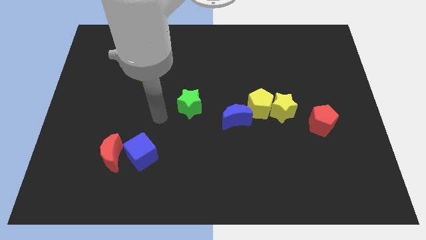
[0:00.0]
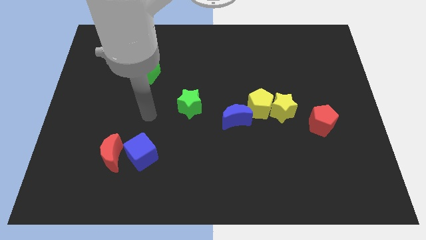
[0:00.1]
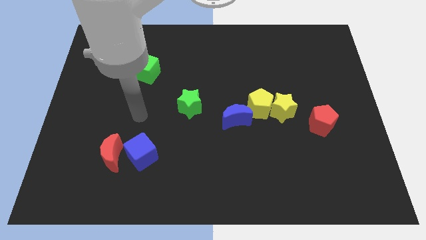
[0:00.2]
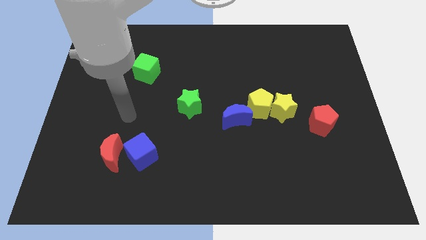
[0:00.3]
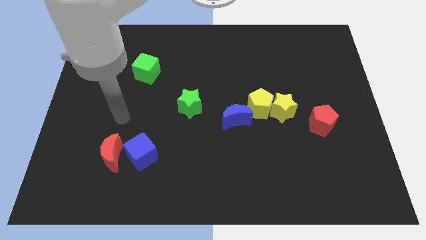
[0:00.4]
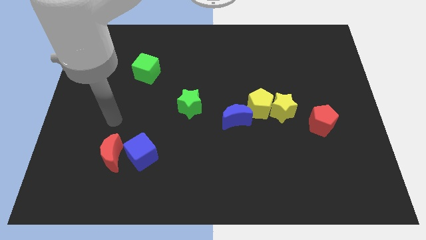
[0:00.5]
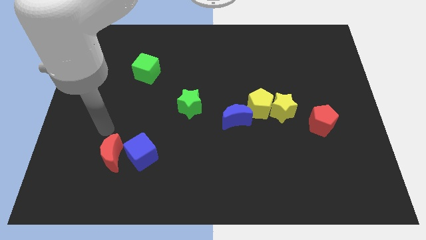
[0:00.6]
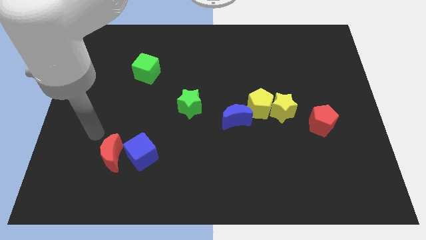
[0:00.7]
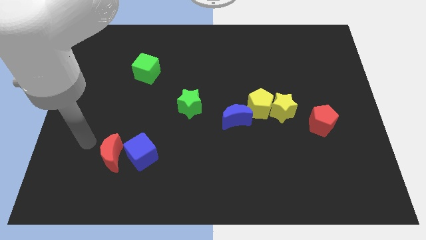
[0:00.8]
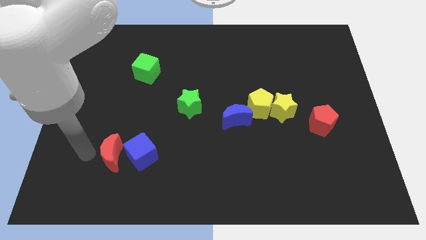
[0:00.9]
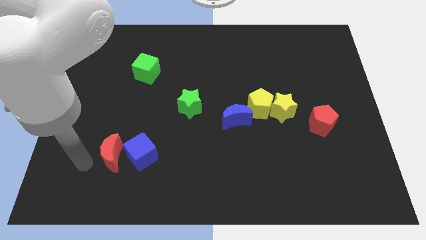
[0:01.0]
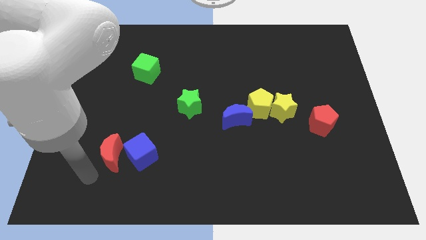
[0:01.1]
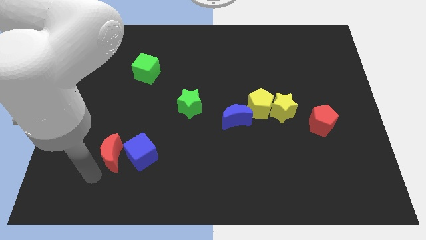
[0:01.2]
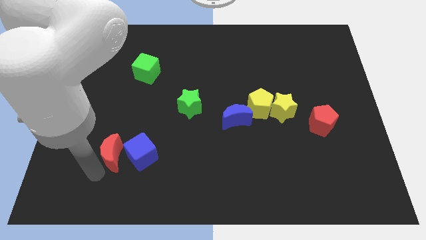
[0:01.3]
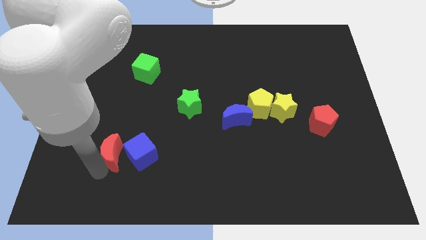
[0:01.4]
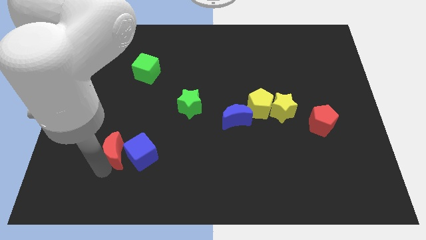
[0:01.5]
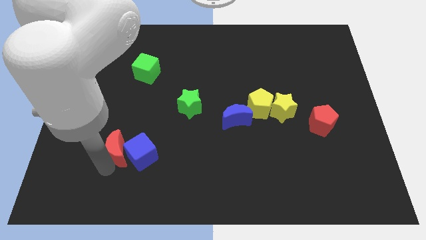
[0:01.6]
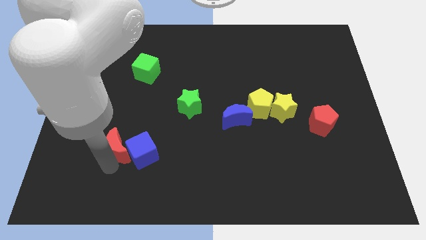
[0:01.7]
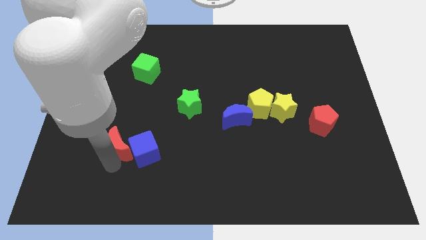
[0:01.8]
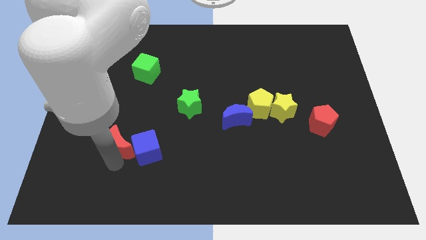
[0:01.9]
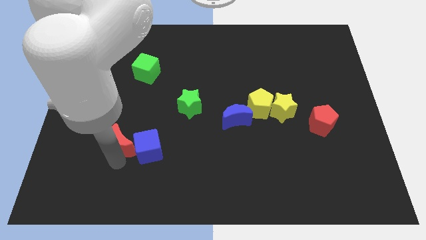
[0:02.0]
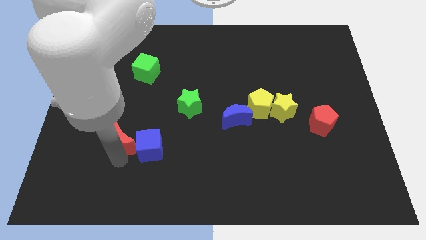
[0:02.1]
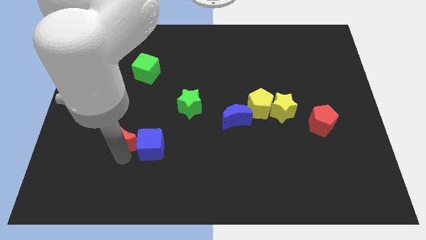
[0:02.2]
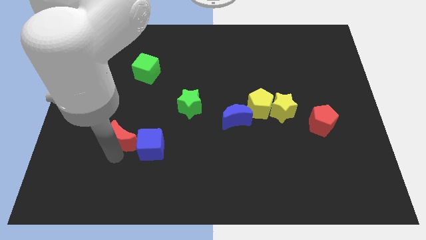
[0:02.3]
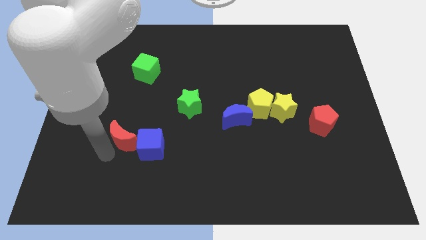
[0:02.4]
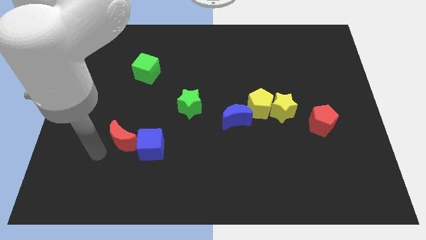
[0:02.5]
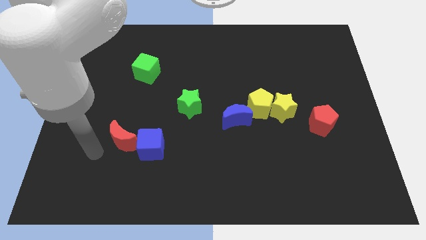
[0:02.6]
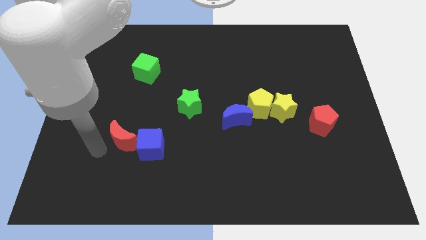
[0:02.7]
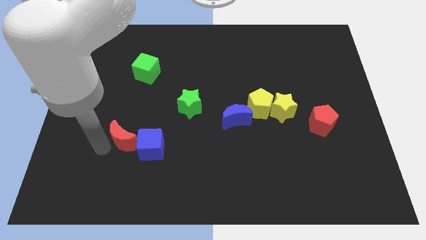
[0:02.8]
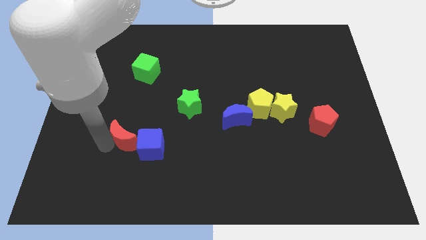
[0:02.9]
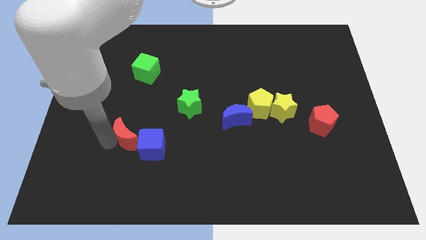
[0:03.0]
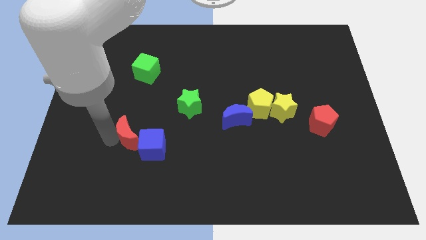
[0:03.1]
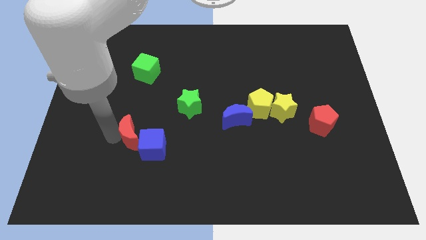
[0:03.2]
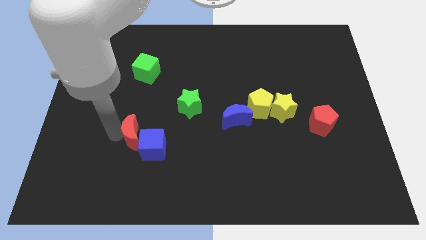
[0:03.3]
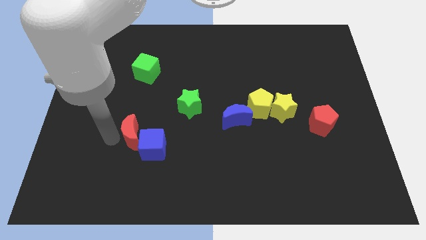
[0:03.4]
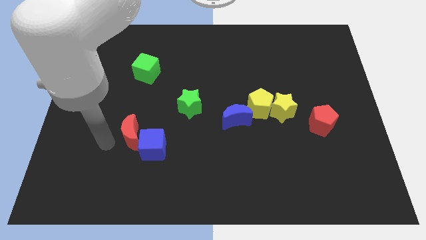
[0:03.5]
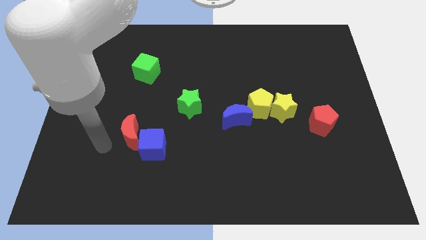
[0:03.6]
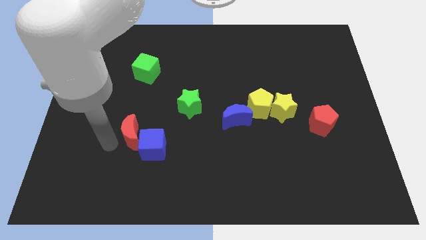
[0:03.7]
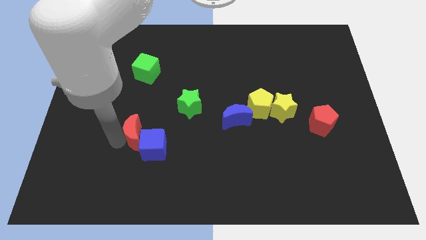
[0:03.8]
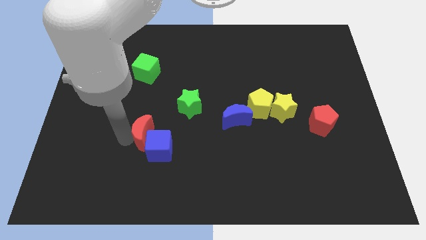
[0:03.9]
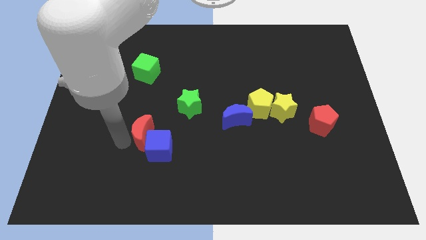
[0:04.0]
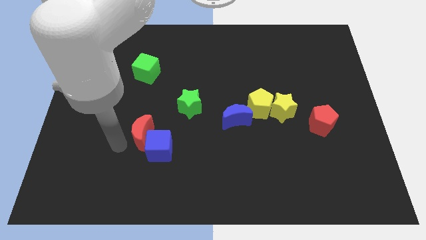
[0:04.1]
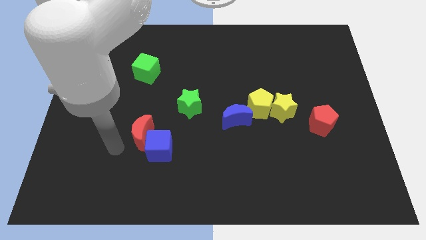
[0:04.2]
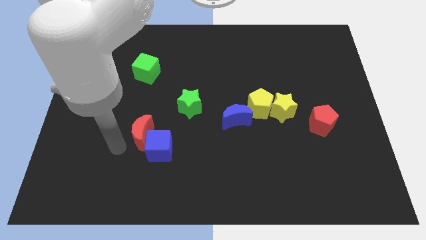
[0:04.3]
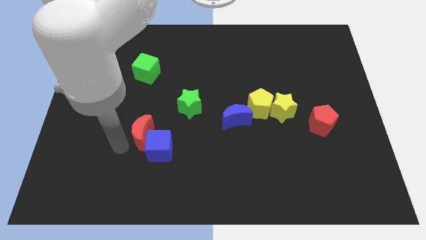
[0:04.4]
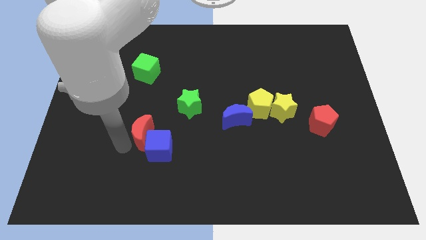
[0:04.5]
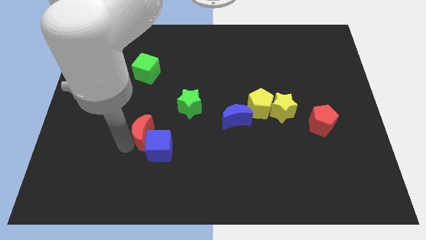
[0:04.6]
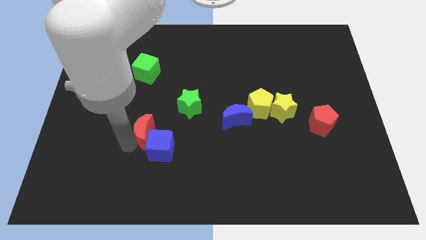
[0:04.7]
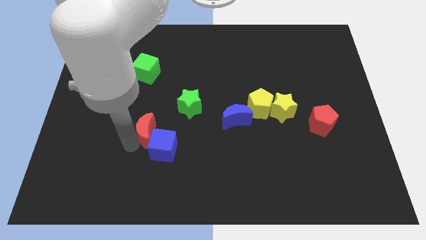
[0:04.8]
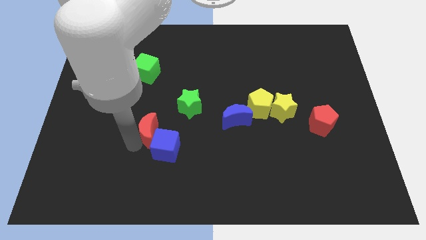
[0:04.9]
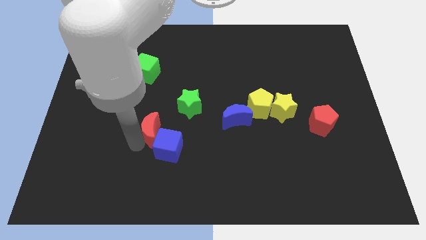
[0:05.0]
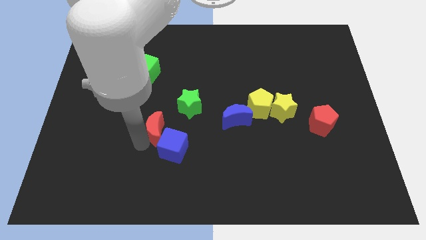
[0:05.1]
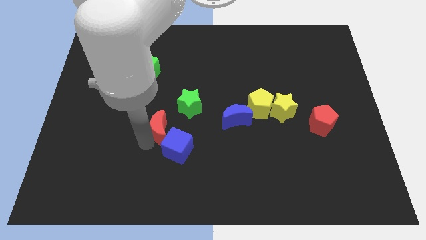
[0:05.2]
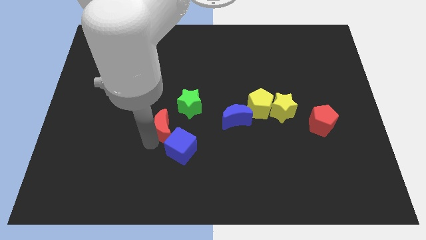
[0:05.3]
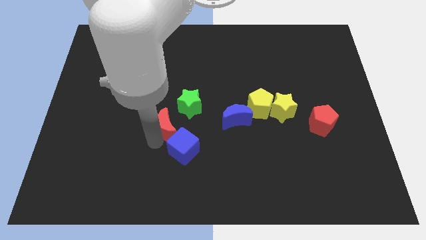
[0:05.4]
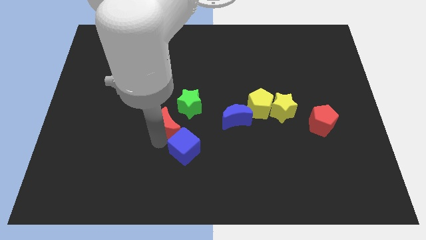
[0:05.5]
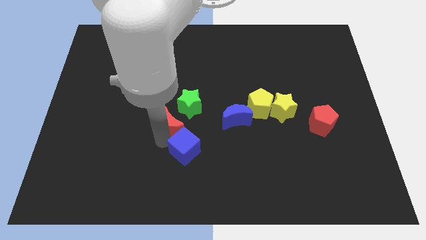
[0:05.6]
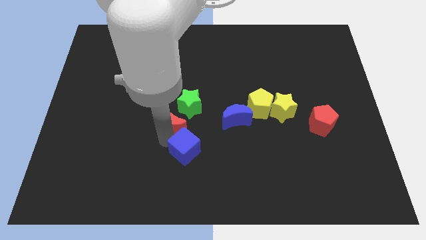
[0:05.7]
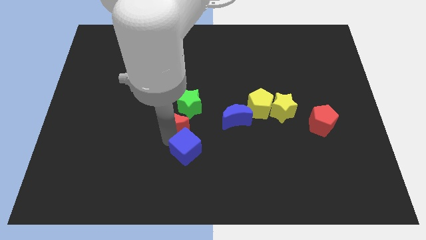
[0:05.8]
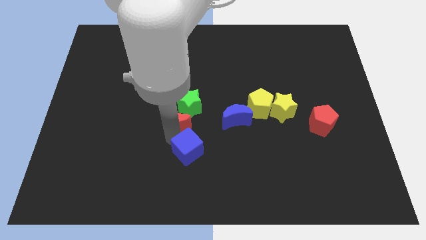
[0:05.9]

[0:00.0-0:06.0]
move the red moon to the green star

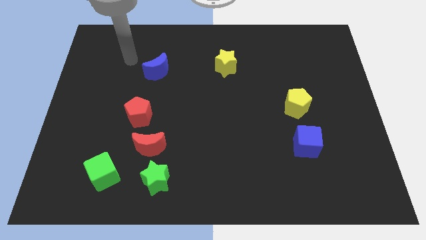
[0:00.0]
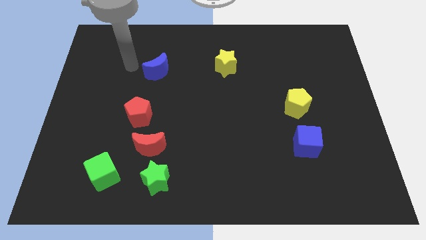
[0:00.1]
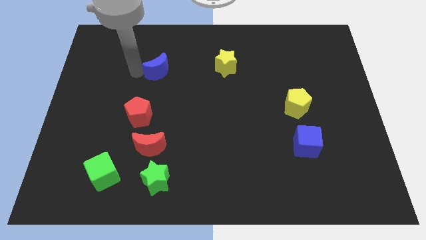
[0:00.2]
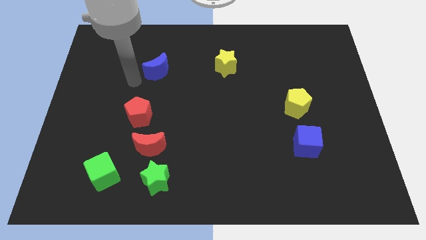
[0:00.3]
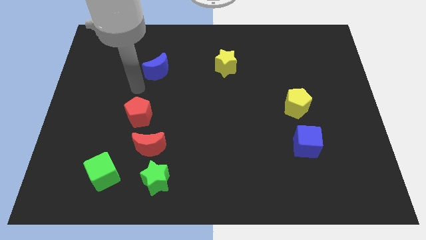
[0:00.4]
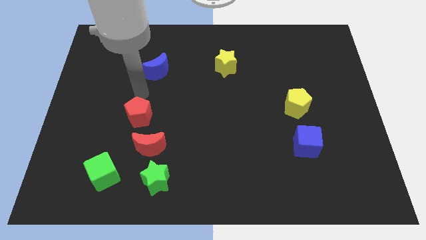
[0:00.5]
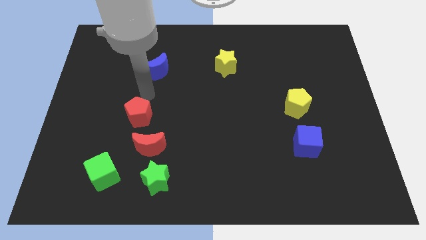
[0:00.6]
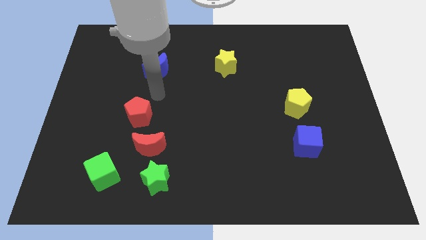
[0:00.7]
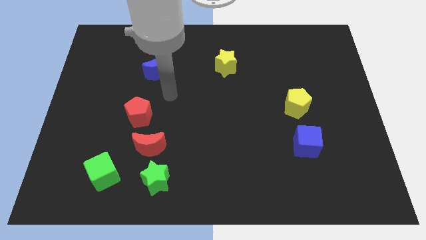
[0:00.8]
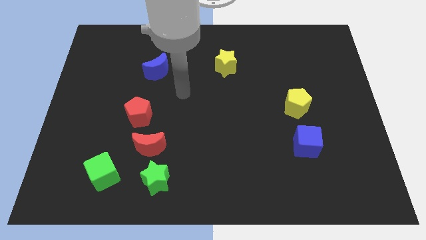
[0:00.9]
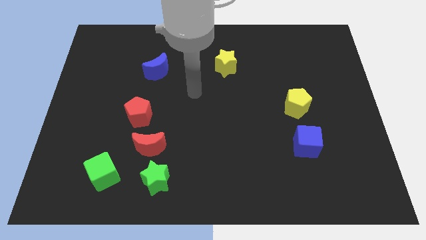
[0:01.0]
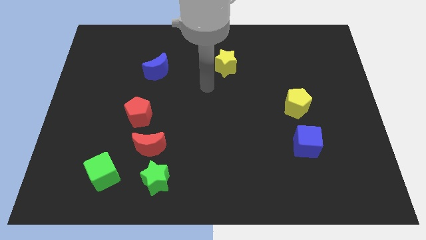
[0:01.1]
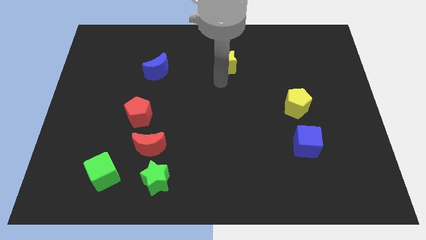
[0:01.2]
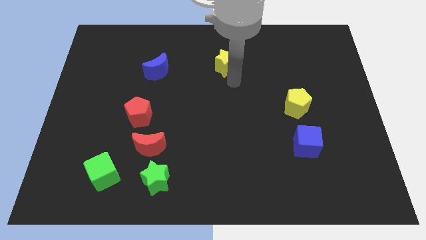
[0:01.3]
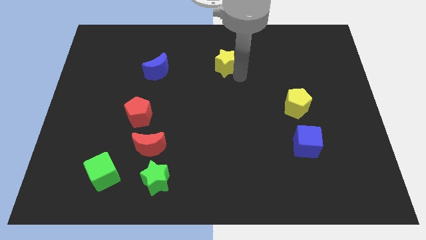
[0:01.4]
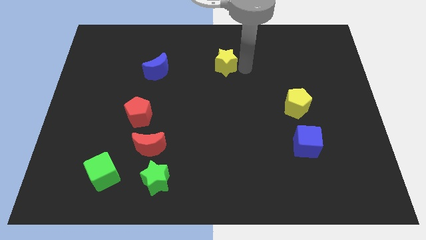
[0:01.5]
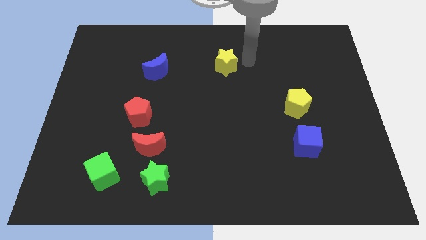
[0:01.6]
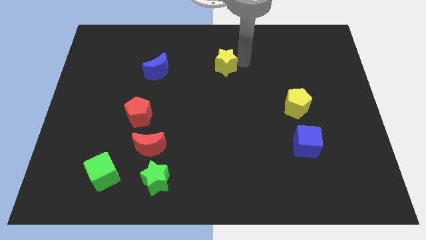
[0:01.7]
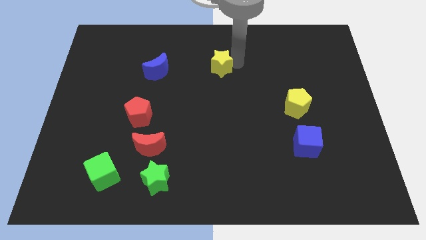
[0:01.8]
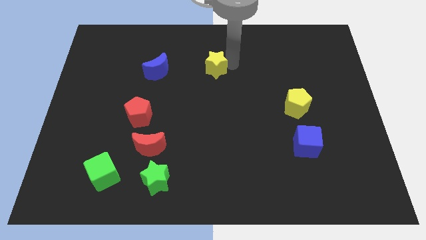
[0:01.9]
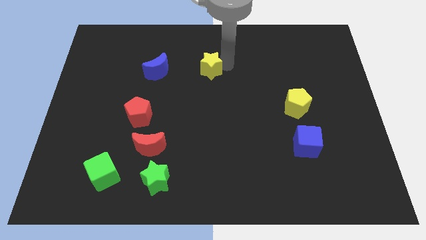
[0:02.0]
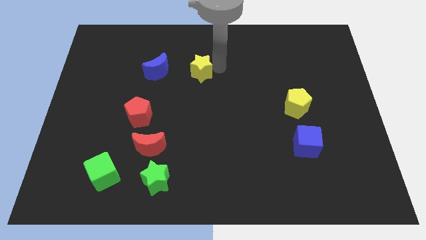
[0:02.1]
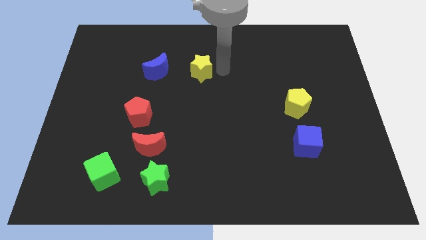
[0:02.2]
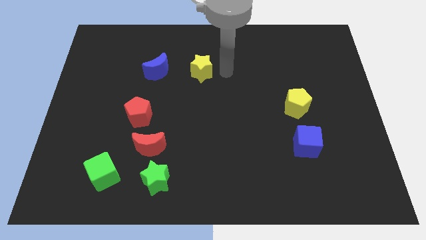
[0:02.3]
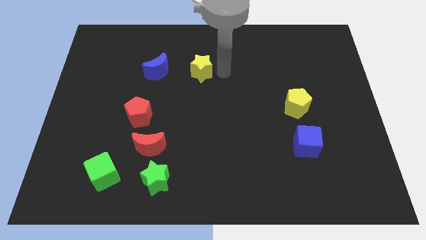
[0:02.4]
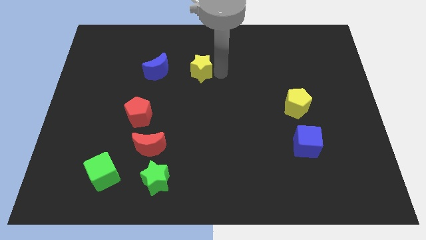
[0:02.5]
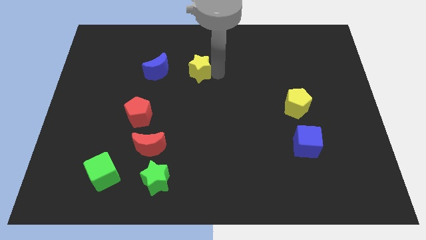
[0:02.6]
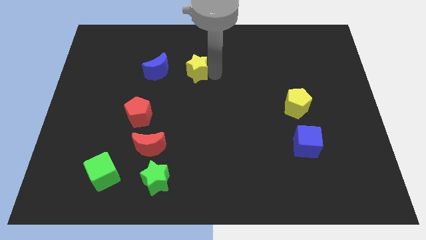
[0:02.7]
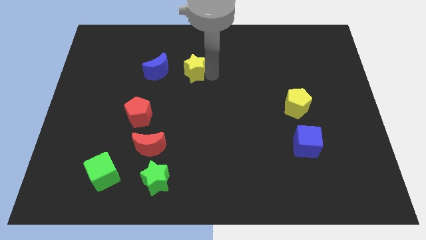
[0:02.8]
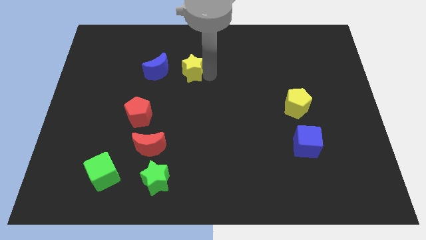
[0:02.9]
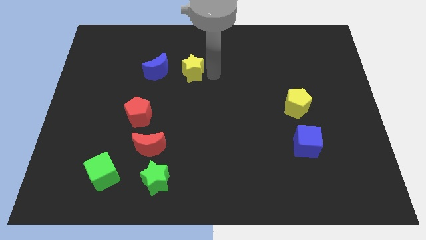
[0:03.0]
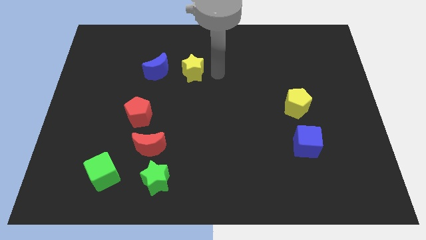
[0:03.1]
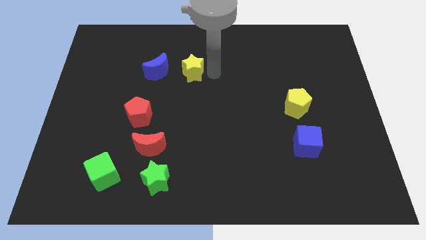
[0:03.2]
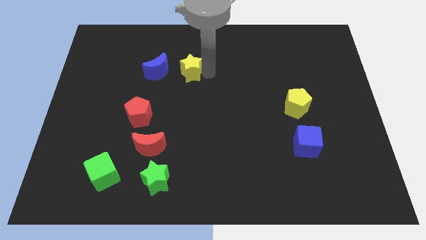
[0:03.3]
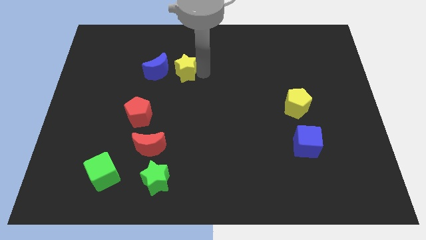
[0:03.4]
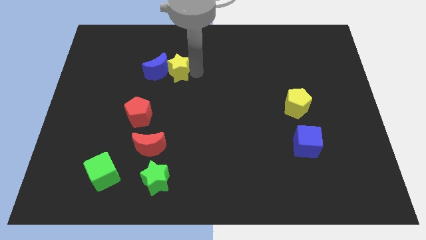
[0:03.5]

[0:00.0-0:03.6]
move the yellow star close to the blue moon
